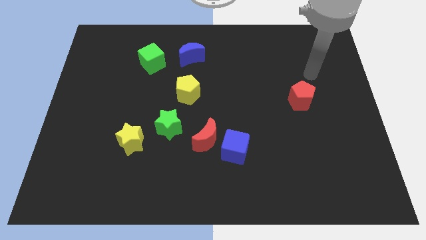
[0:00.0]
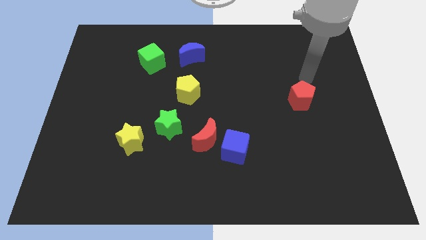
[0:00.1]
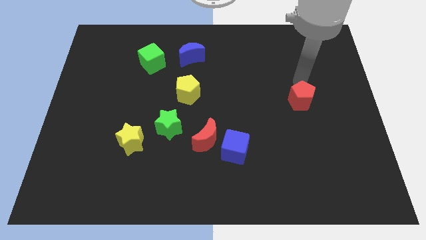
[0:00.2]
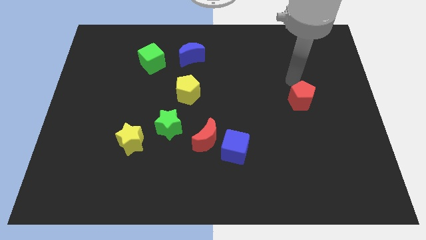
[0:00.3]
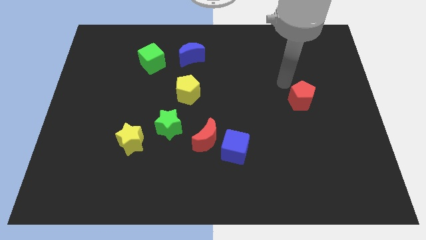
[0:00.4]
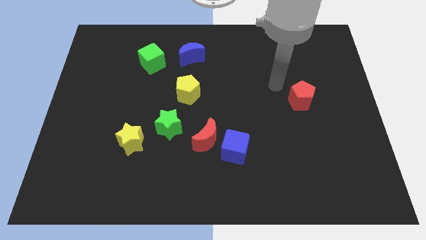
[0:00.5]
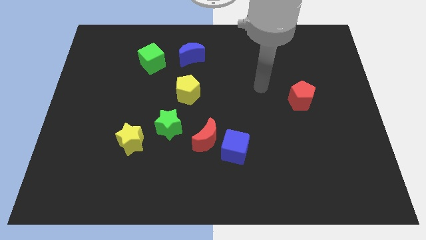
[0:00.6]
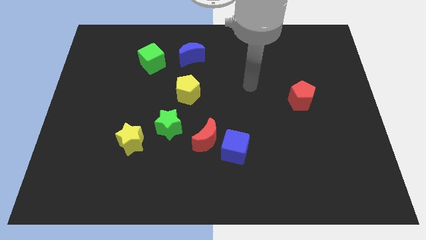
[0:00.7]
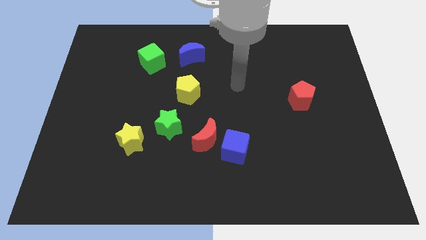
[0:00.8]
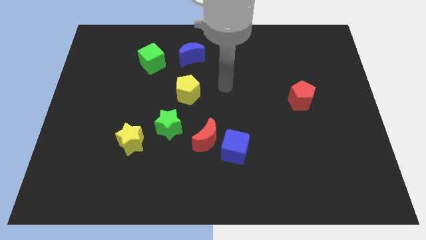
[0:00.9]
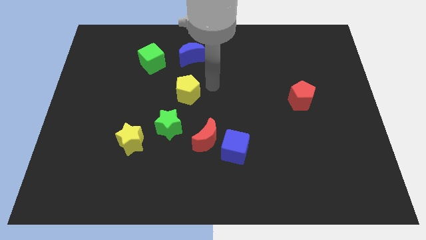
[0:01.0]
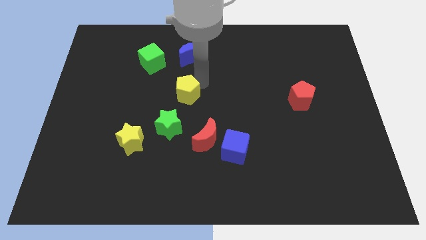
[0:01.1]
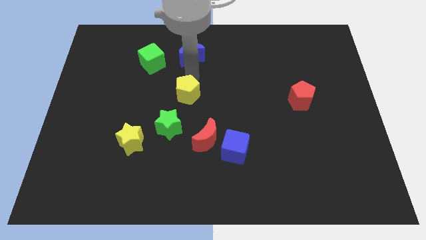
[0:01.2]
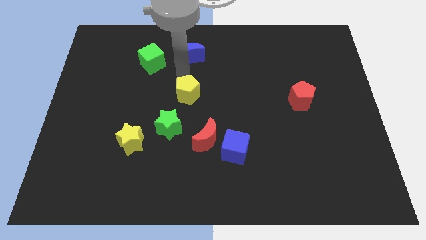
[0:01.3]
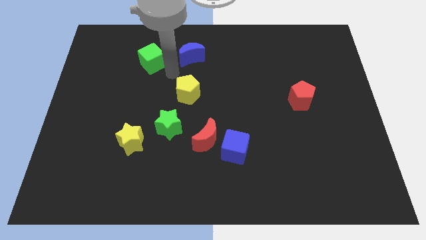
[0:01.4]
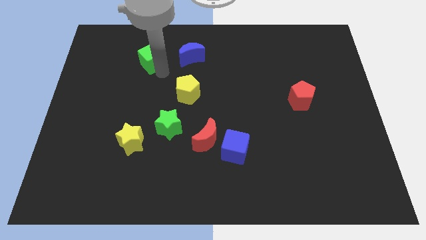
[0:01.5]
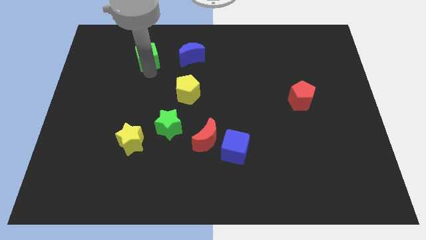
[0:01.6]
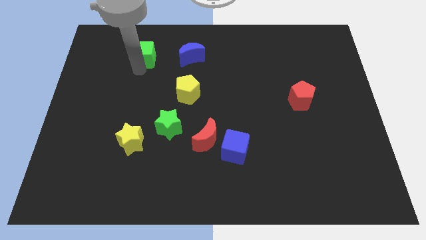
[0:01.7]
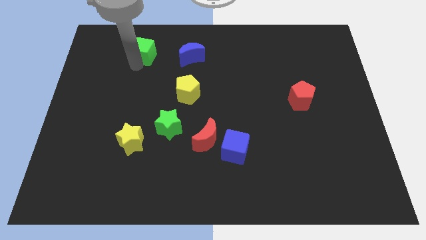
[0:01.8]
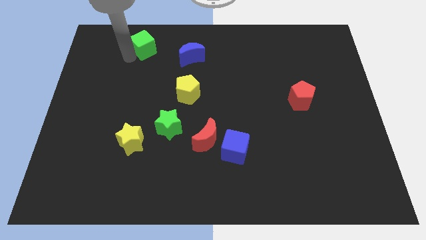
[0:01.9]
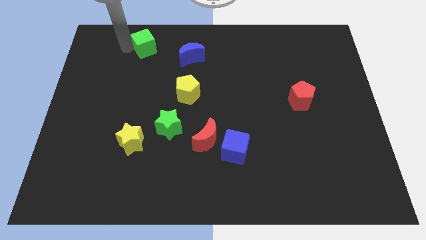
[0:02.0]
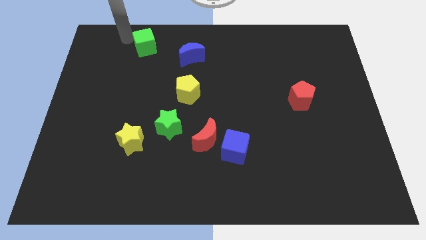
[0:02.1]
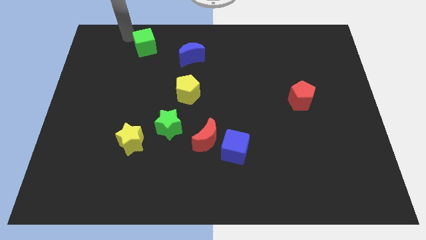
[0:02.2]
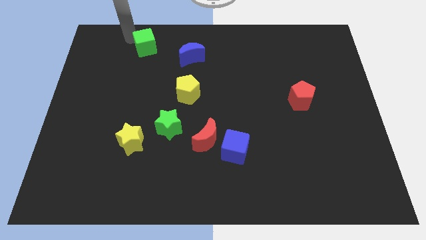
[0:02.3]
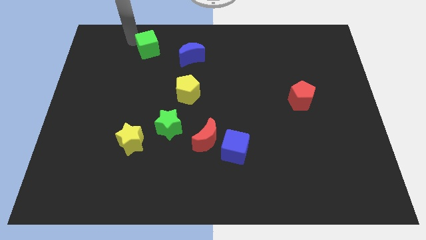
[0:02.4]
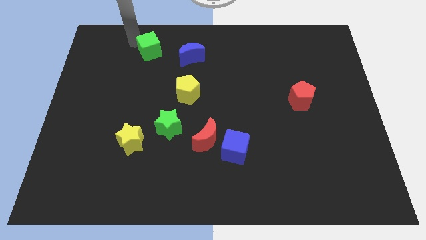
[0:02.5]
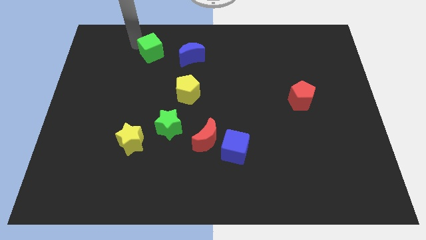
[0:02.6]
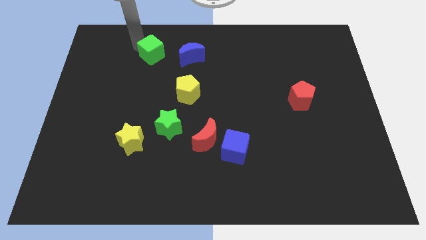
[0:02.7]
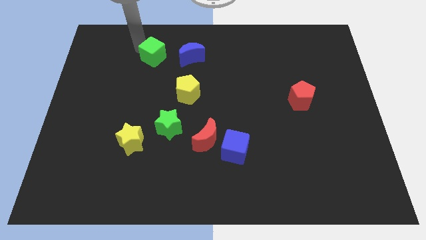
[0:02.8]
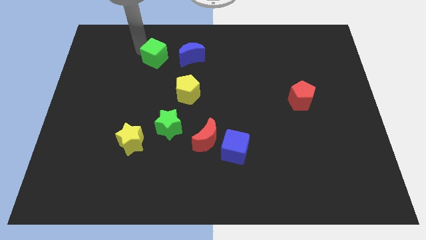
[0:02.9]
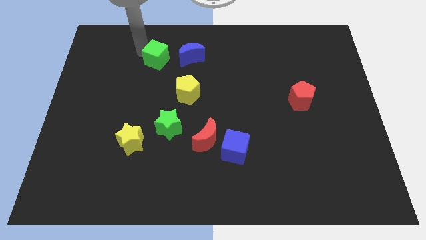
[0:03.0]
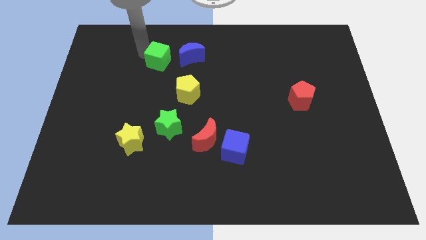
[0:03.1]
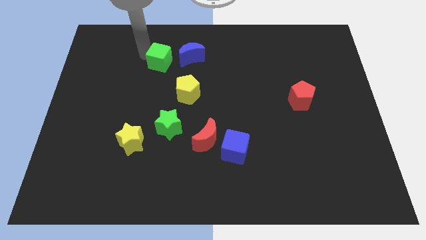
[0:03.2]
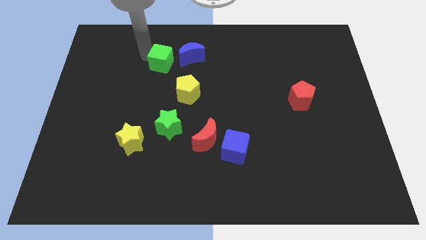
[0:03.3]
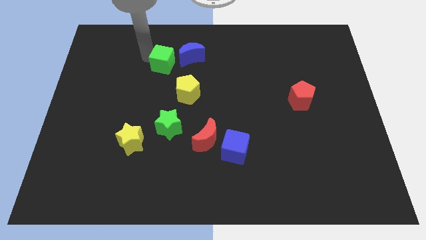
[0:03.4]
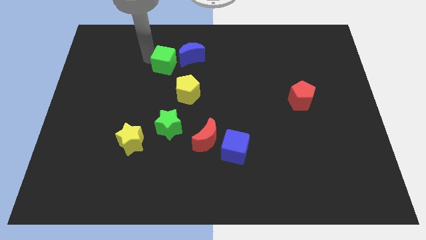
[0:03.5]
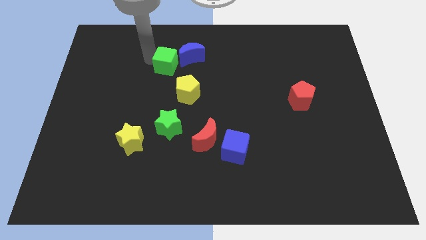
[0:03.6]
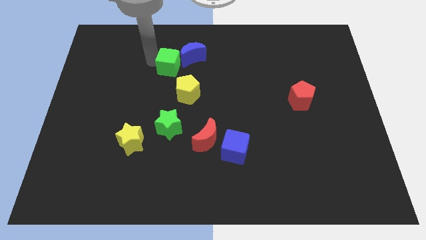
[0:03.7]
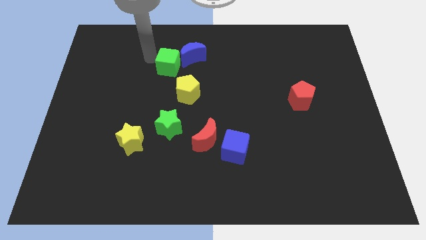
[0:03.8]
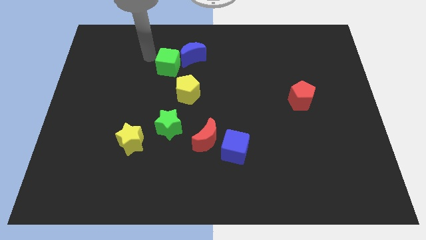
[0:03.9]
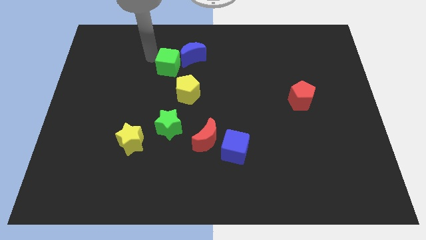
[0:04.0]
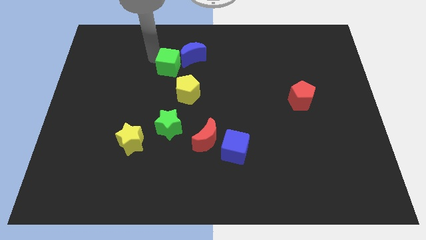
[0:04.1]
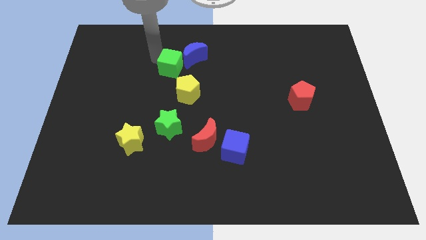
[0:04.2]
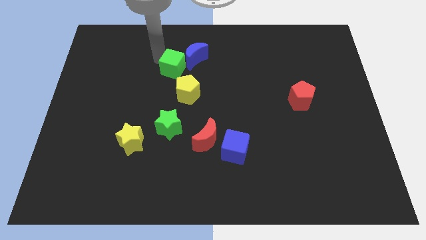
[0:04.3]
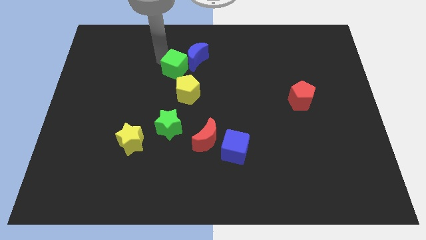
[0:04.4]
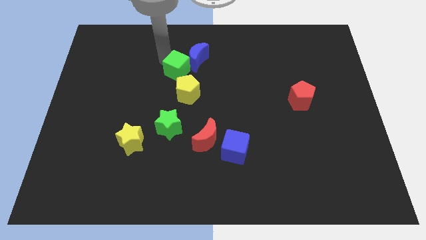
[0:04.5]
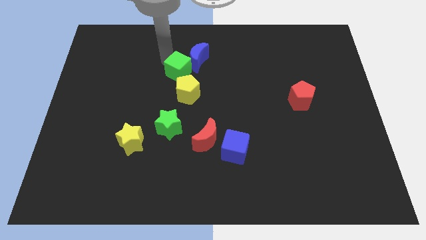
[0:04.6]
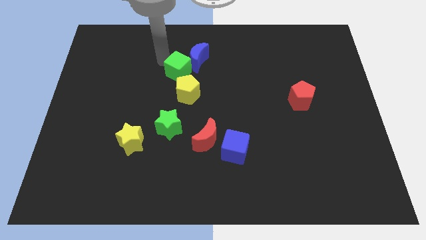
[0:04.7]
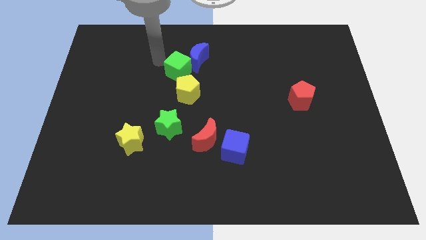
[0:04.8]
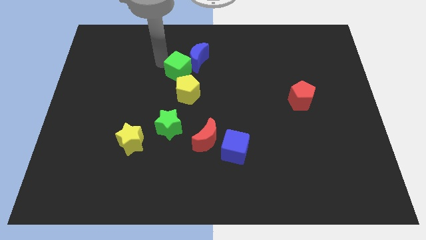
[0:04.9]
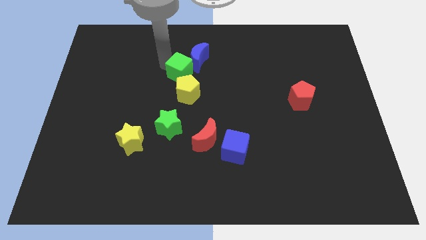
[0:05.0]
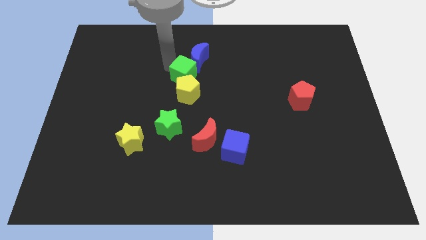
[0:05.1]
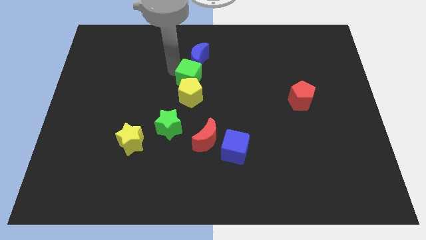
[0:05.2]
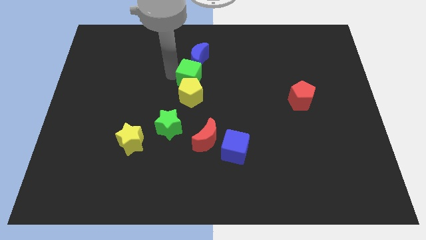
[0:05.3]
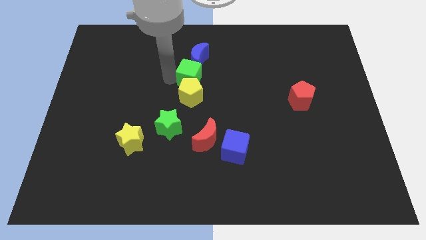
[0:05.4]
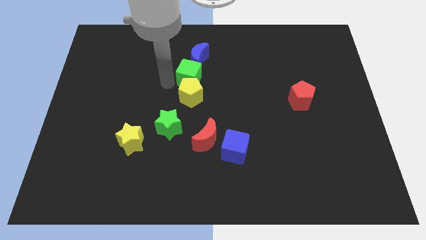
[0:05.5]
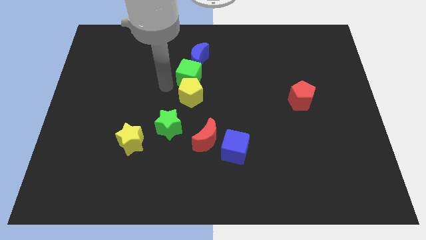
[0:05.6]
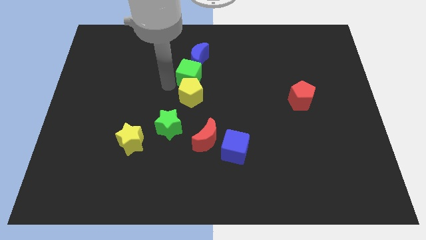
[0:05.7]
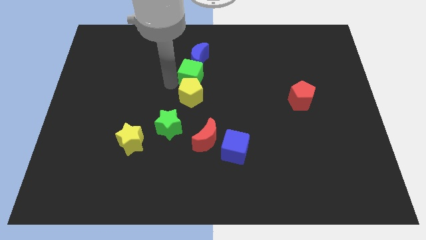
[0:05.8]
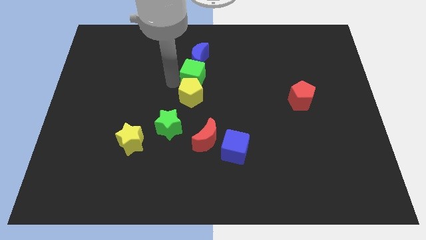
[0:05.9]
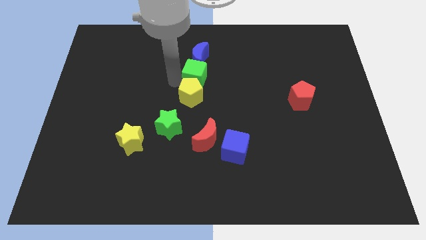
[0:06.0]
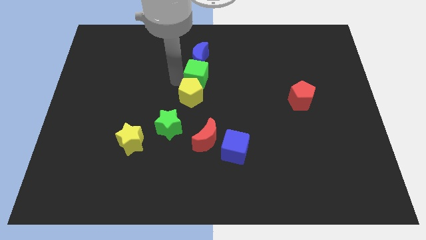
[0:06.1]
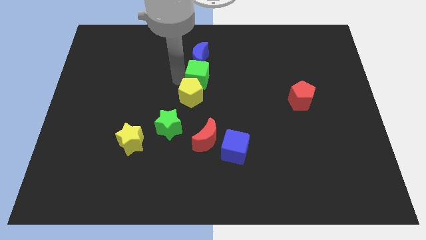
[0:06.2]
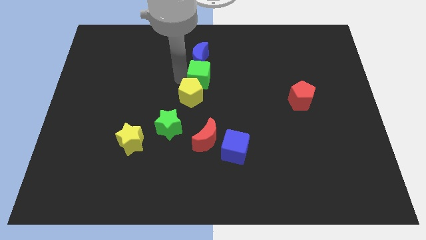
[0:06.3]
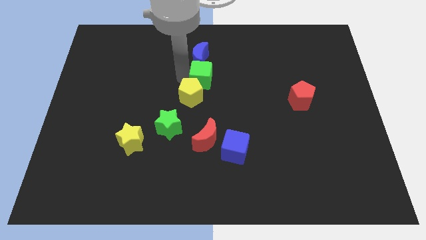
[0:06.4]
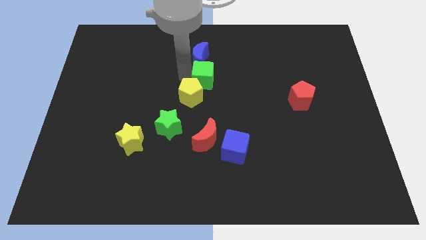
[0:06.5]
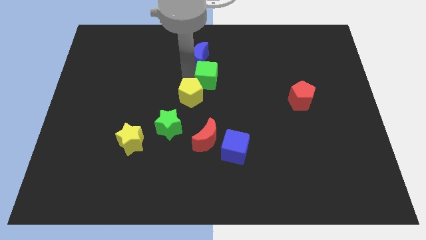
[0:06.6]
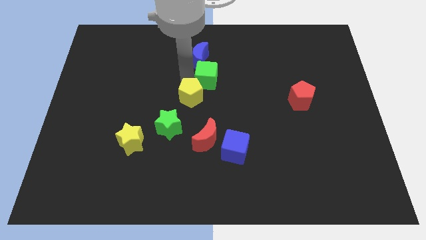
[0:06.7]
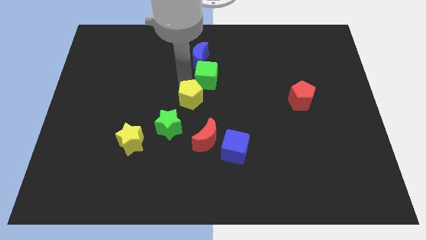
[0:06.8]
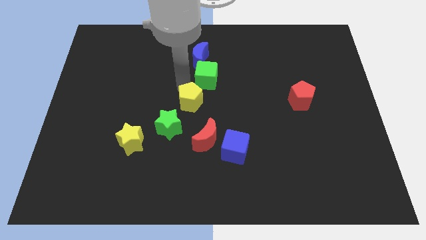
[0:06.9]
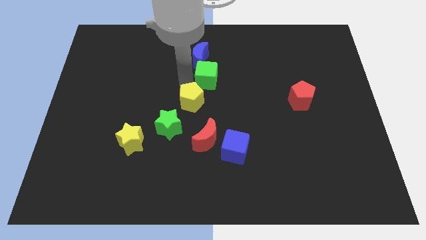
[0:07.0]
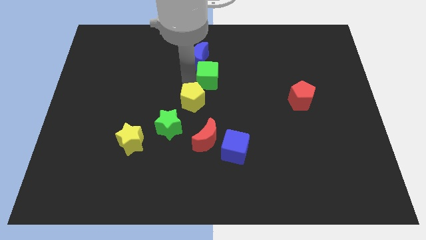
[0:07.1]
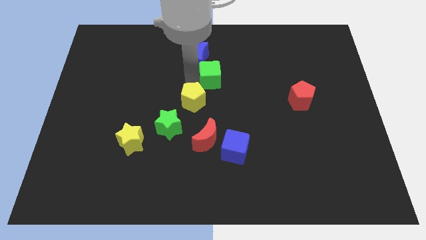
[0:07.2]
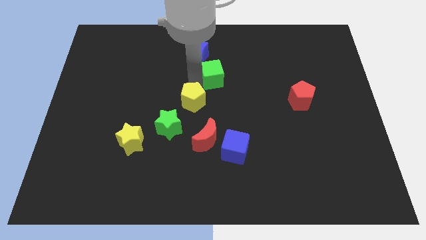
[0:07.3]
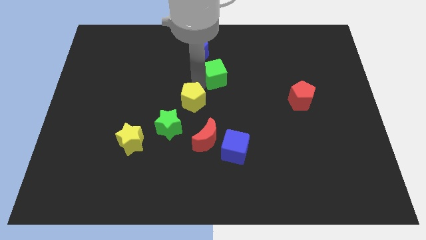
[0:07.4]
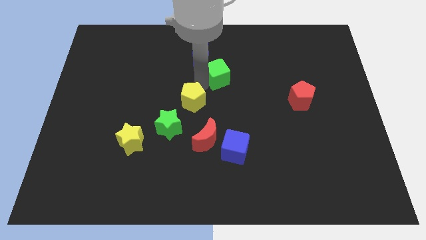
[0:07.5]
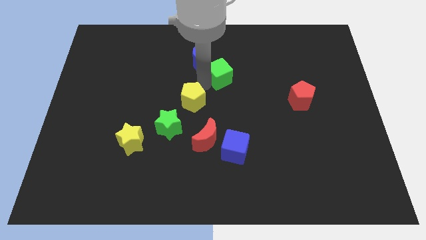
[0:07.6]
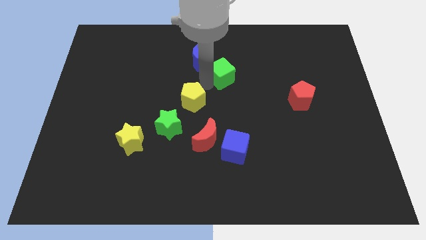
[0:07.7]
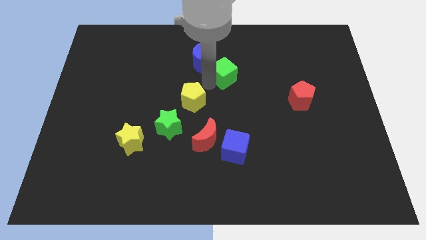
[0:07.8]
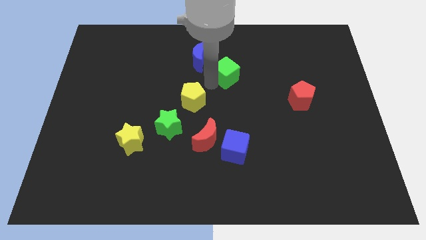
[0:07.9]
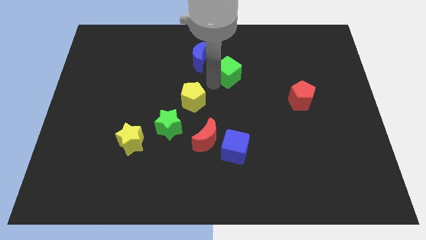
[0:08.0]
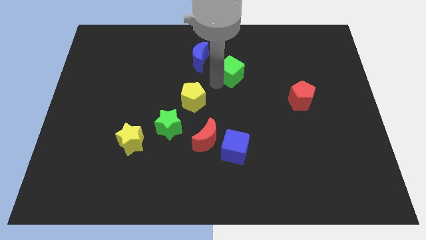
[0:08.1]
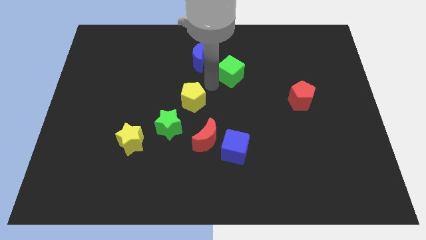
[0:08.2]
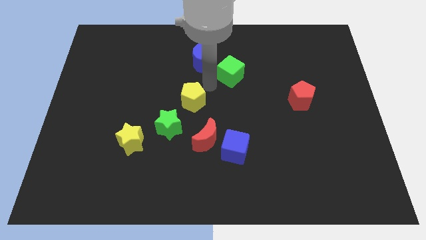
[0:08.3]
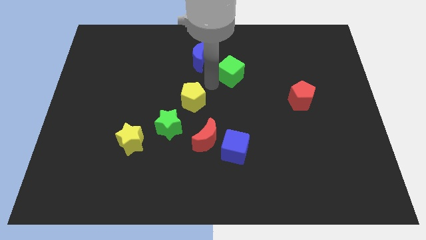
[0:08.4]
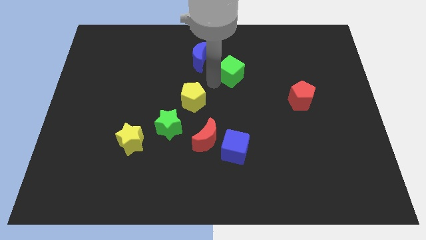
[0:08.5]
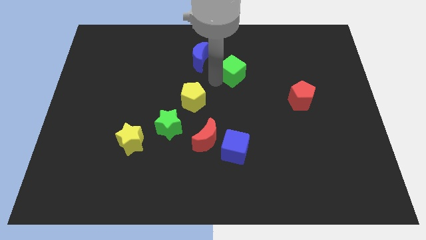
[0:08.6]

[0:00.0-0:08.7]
move the green cube right
